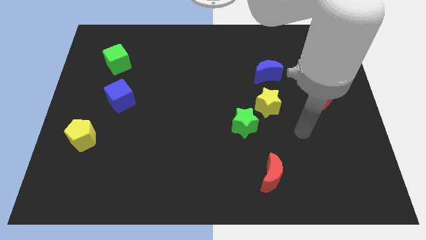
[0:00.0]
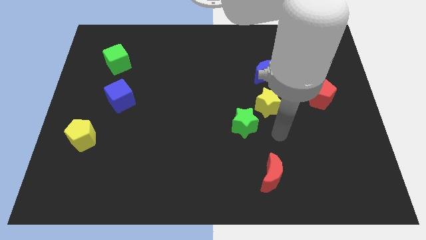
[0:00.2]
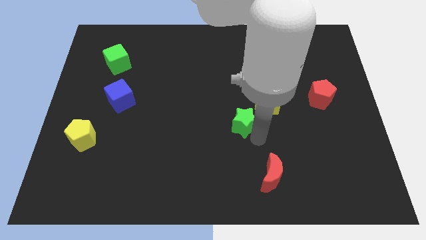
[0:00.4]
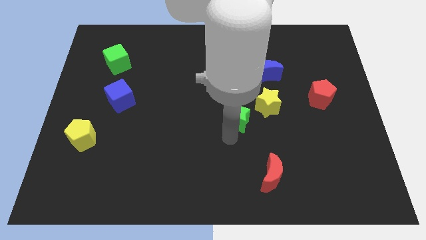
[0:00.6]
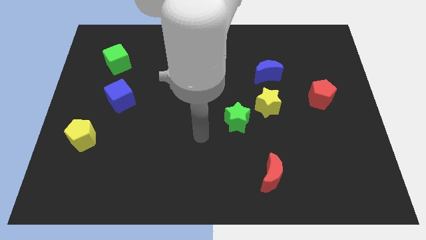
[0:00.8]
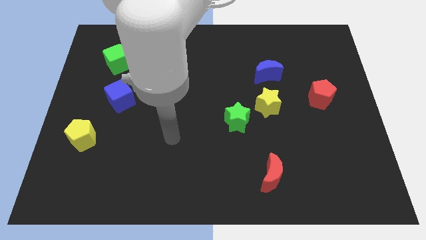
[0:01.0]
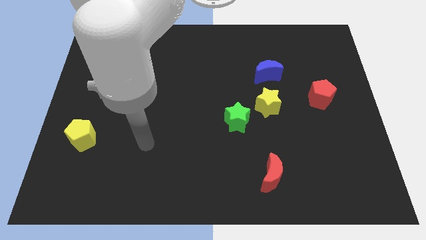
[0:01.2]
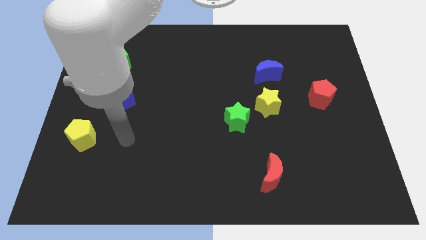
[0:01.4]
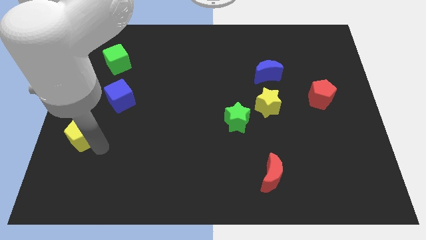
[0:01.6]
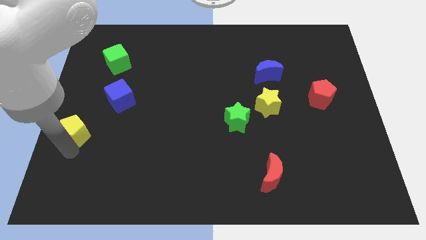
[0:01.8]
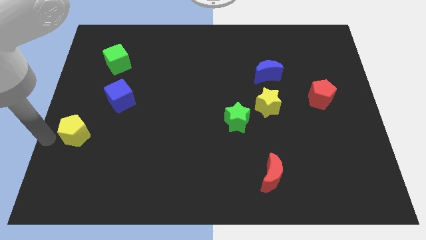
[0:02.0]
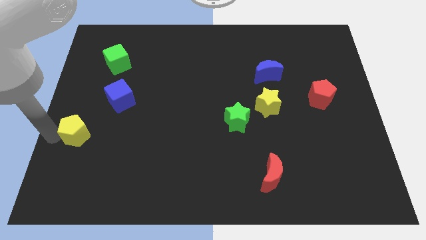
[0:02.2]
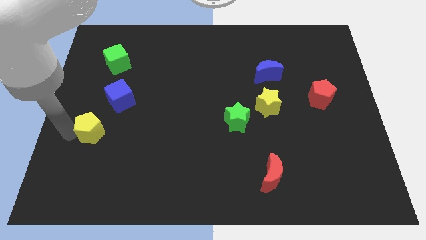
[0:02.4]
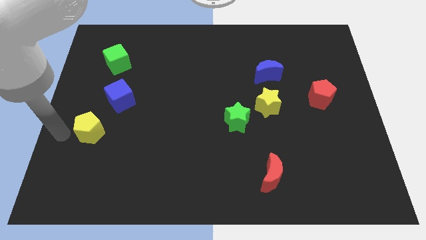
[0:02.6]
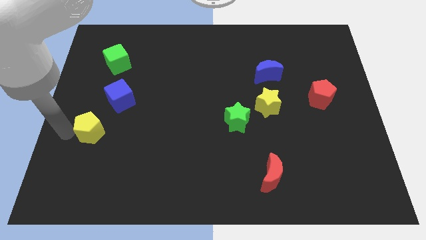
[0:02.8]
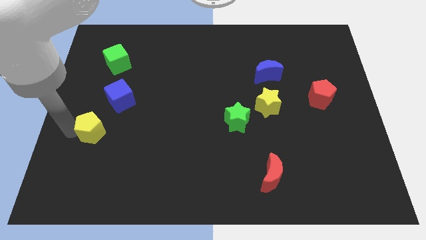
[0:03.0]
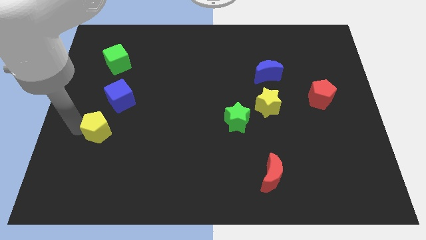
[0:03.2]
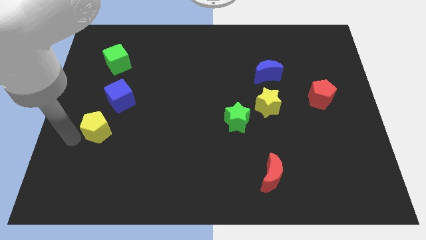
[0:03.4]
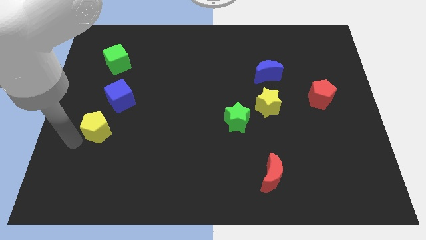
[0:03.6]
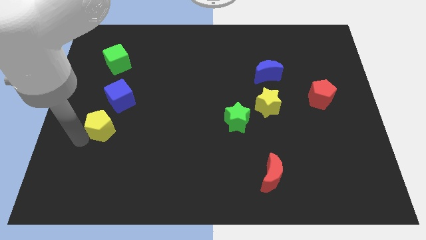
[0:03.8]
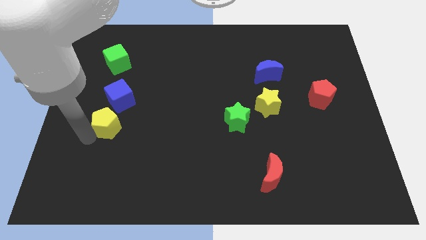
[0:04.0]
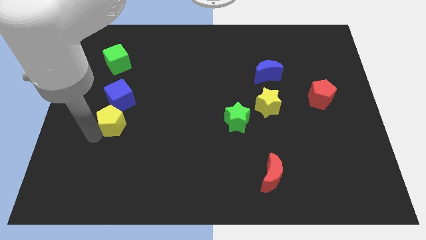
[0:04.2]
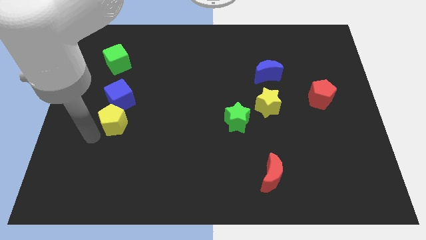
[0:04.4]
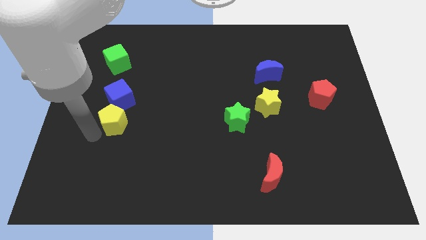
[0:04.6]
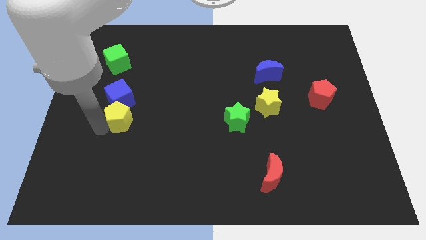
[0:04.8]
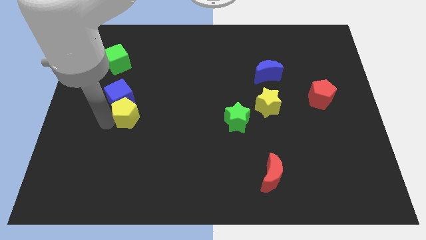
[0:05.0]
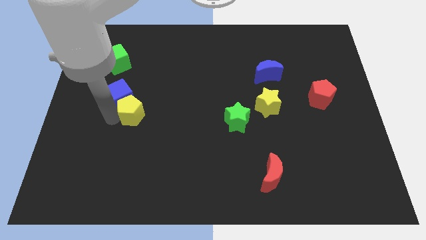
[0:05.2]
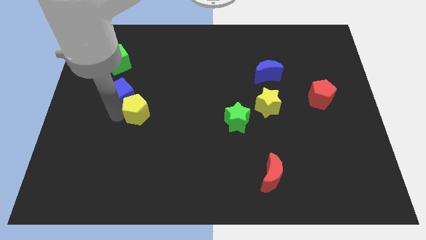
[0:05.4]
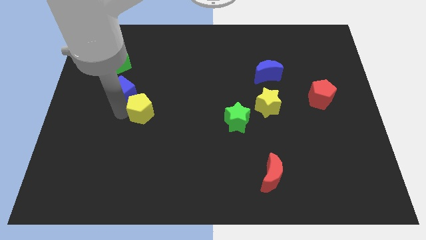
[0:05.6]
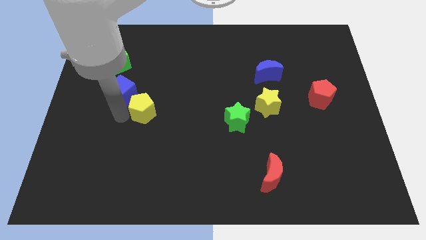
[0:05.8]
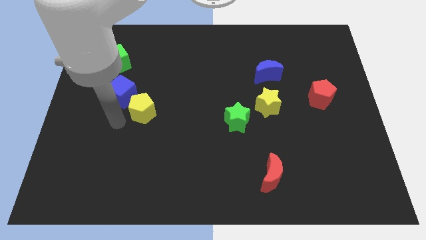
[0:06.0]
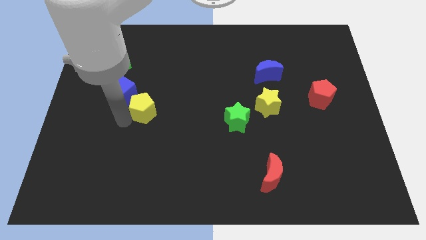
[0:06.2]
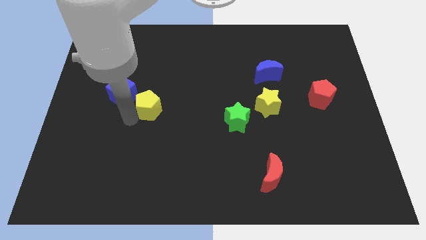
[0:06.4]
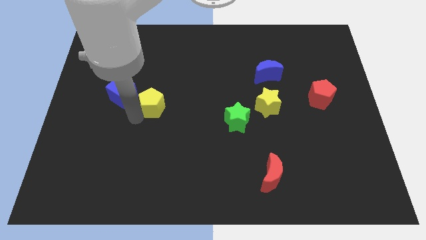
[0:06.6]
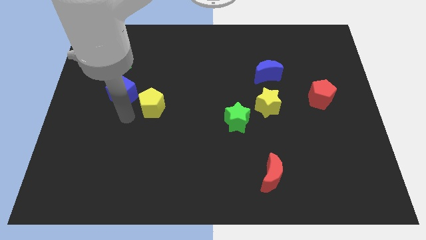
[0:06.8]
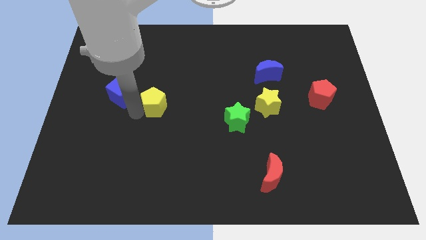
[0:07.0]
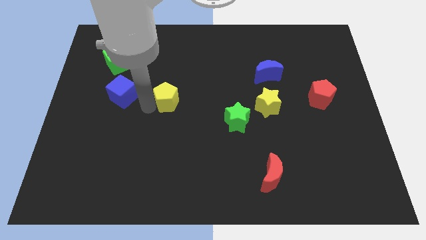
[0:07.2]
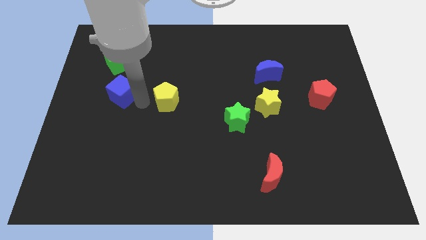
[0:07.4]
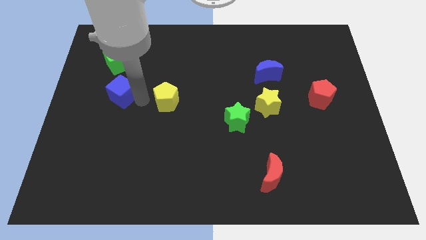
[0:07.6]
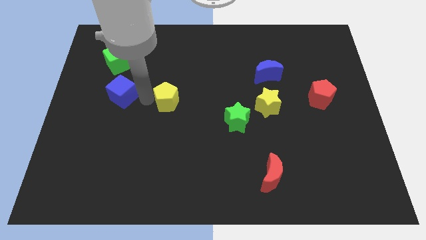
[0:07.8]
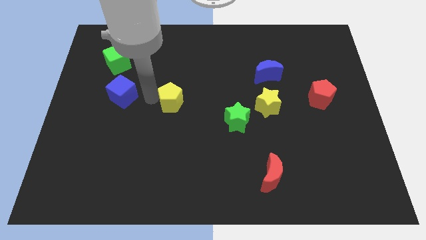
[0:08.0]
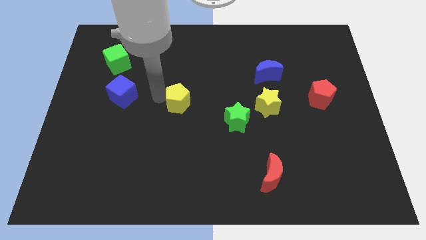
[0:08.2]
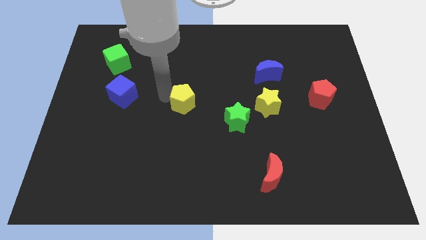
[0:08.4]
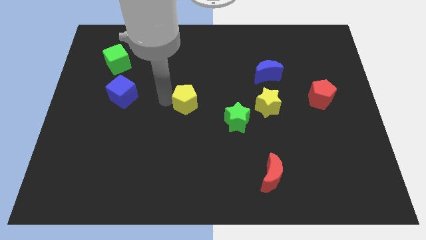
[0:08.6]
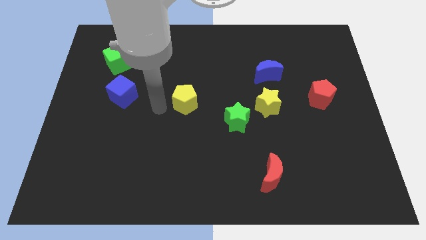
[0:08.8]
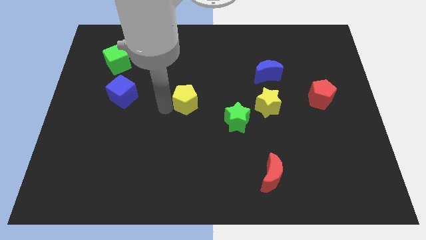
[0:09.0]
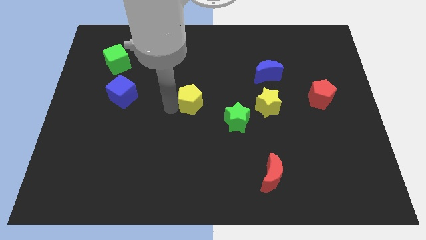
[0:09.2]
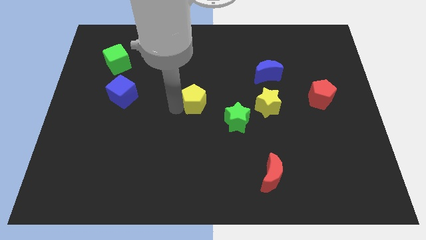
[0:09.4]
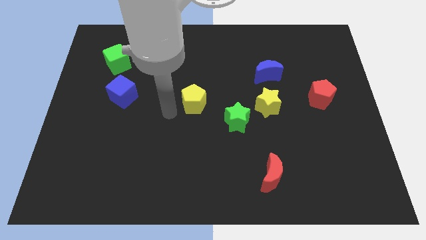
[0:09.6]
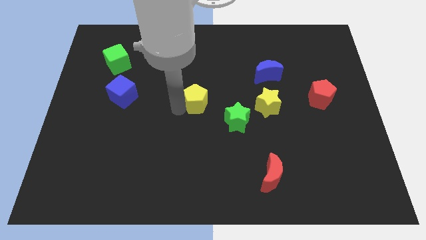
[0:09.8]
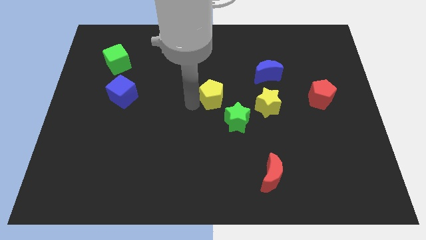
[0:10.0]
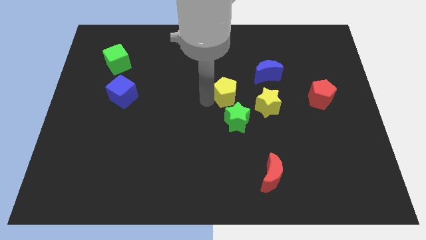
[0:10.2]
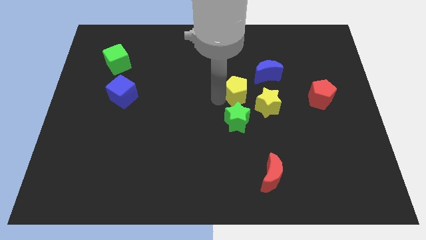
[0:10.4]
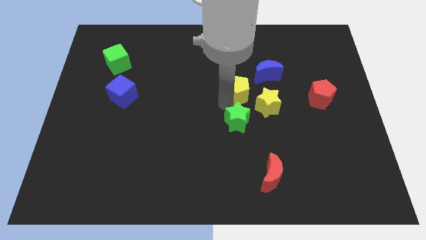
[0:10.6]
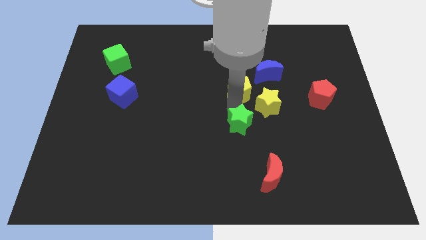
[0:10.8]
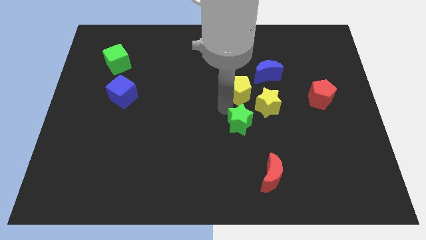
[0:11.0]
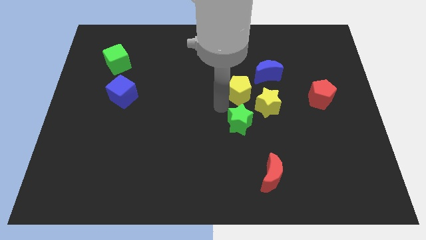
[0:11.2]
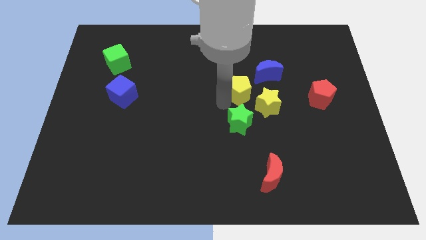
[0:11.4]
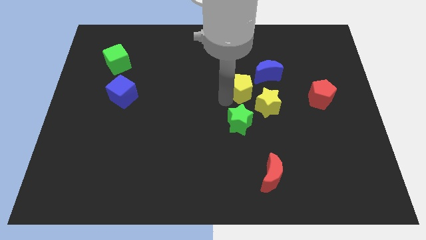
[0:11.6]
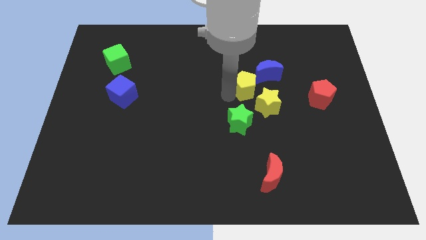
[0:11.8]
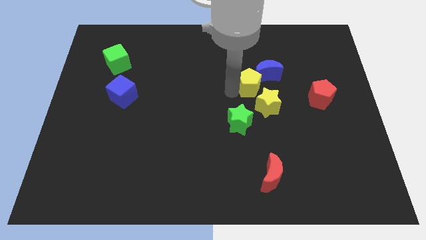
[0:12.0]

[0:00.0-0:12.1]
slide the yellow pentagon close to the blue moon
